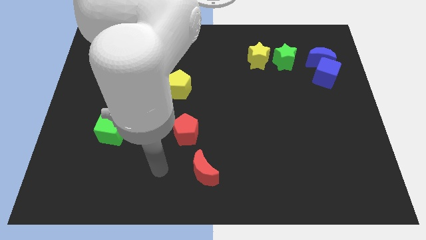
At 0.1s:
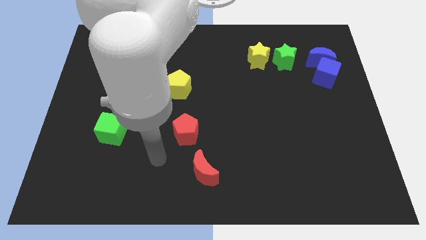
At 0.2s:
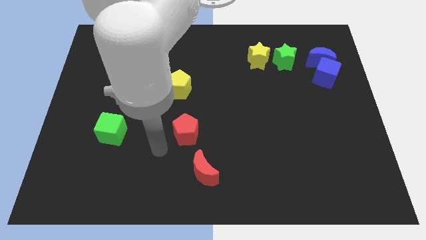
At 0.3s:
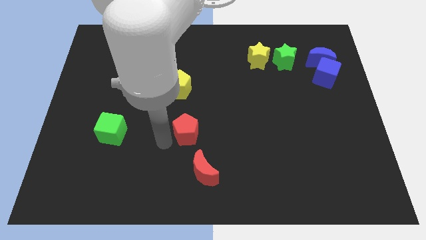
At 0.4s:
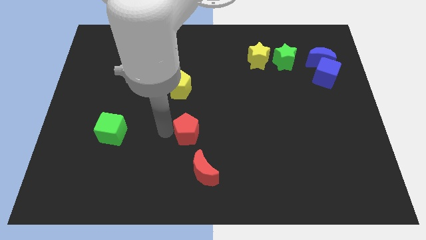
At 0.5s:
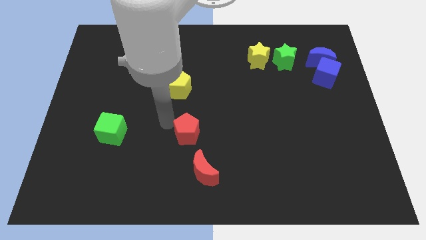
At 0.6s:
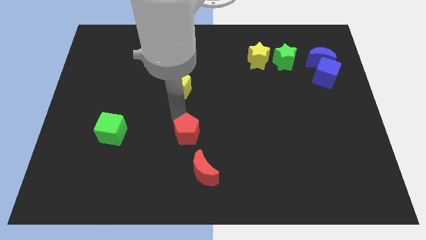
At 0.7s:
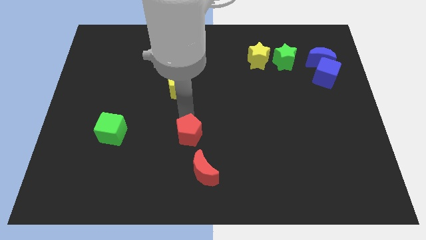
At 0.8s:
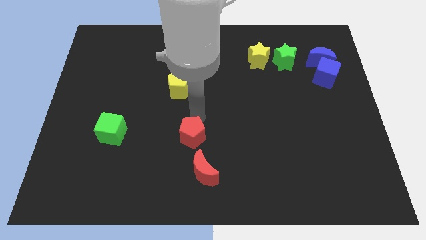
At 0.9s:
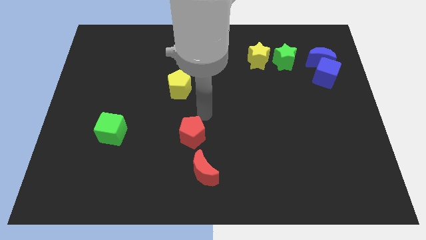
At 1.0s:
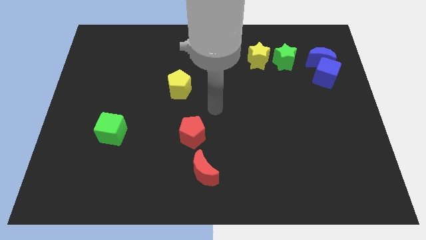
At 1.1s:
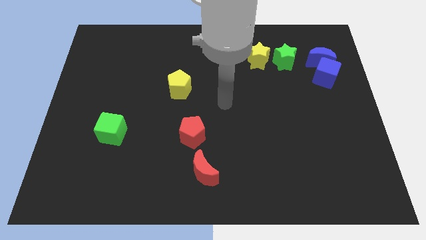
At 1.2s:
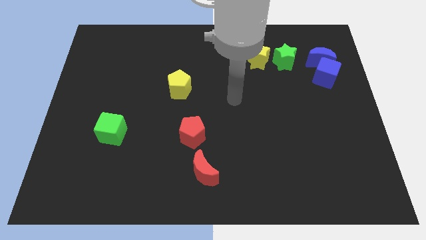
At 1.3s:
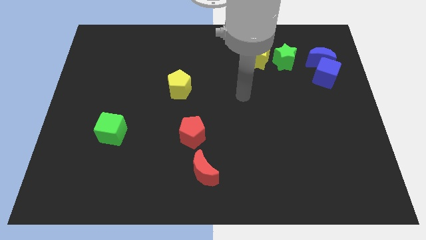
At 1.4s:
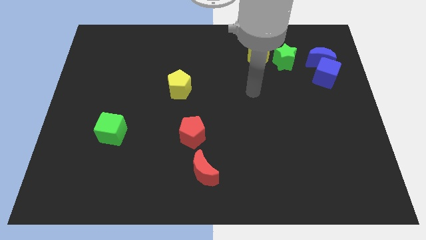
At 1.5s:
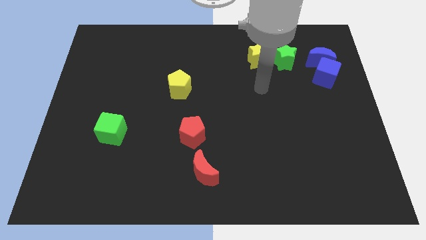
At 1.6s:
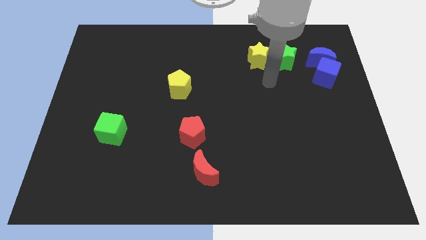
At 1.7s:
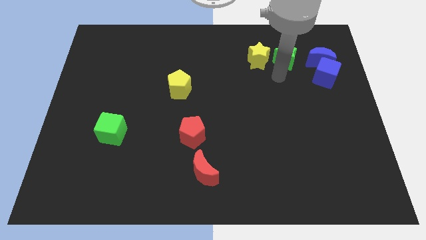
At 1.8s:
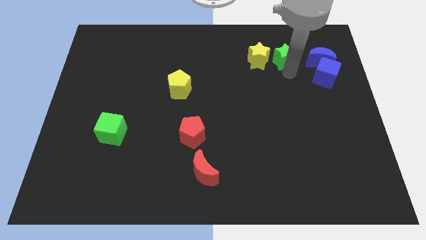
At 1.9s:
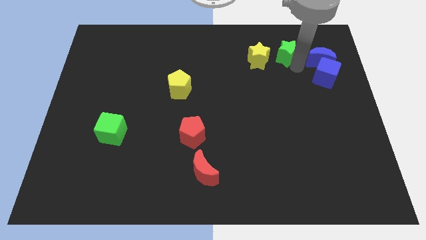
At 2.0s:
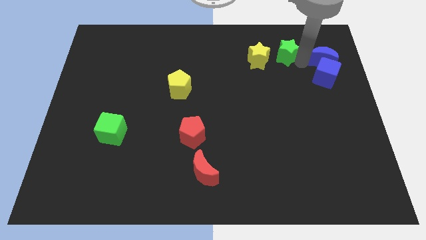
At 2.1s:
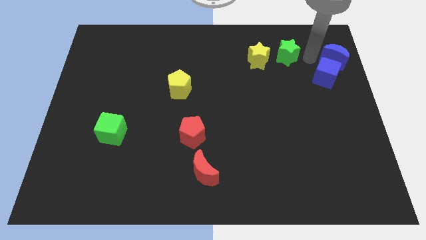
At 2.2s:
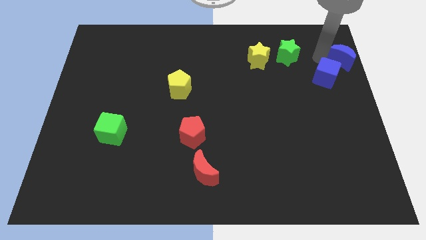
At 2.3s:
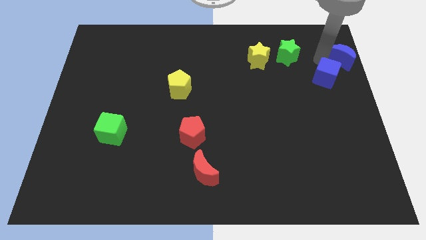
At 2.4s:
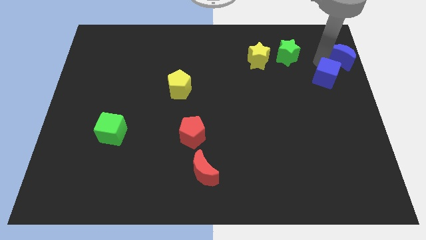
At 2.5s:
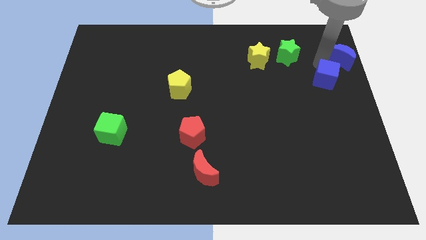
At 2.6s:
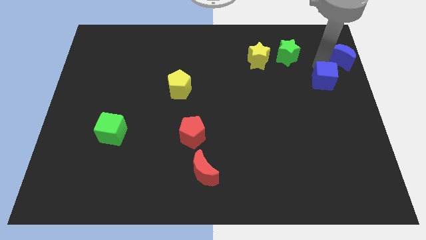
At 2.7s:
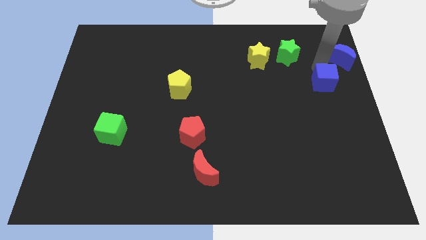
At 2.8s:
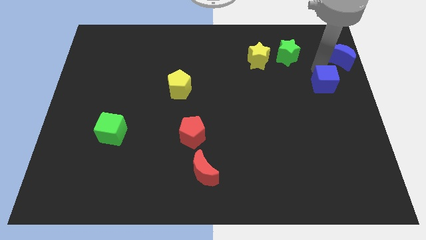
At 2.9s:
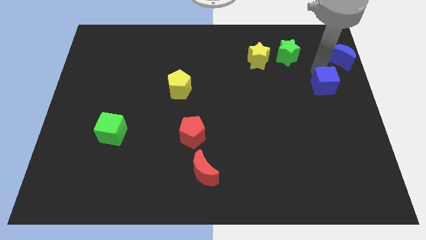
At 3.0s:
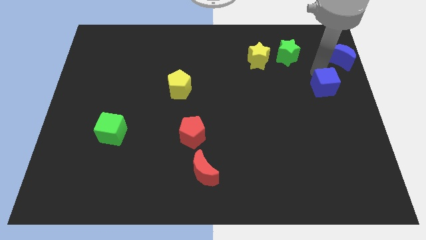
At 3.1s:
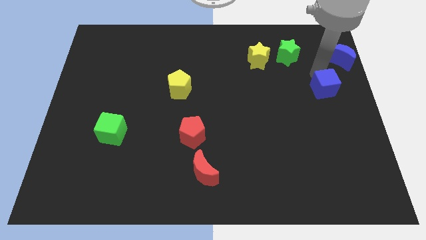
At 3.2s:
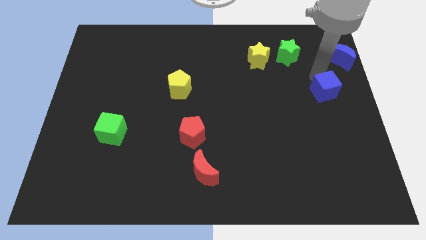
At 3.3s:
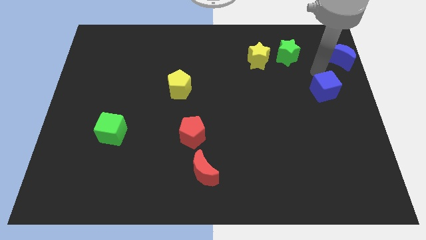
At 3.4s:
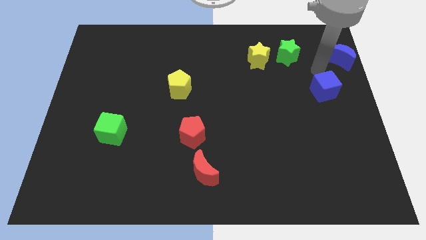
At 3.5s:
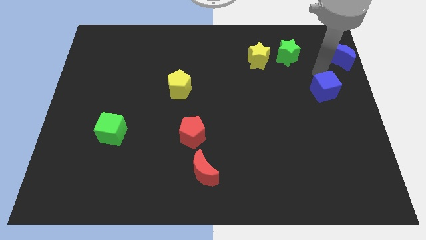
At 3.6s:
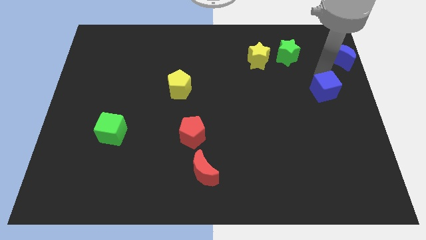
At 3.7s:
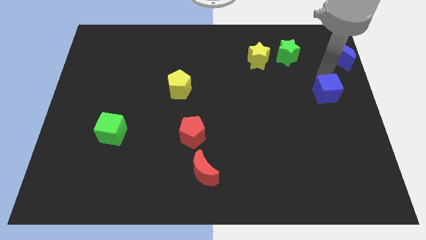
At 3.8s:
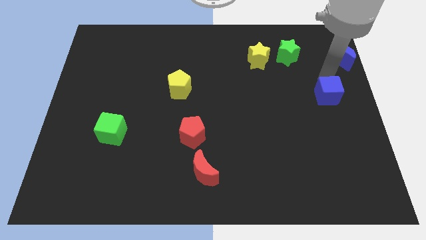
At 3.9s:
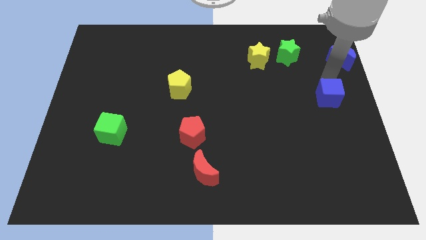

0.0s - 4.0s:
slide the blue cube a bit downwards

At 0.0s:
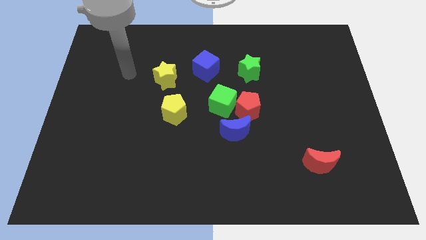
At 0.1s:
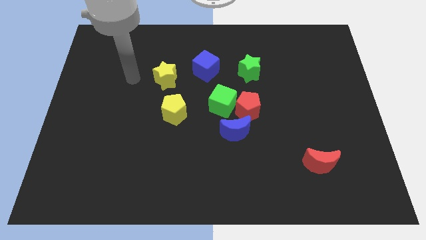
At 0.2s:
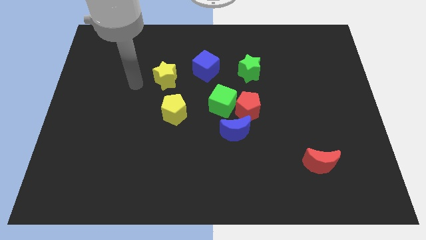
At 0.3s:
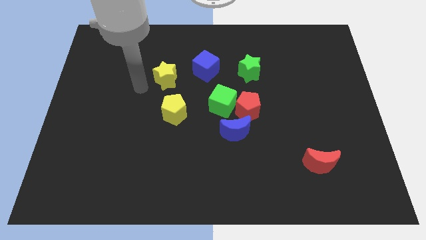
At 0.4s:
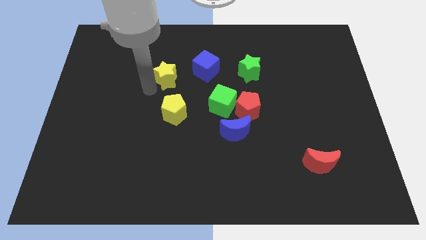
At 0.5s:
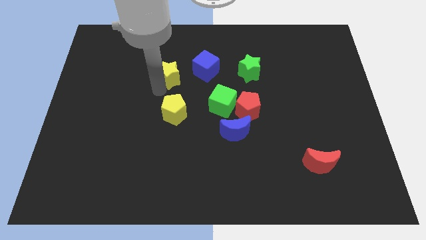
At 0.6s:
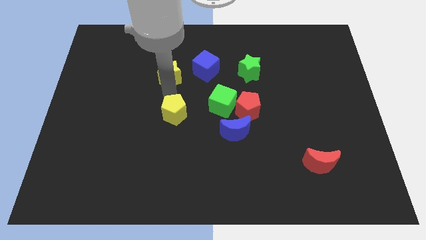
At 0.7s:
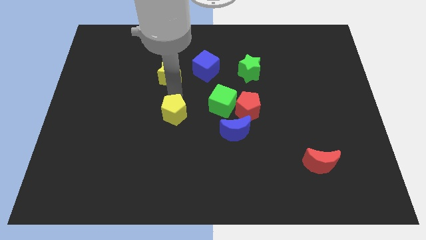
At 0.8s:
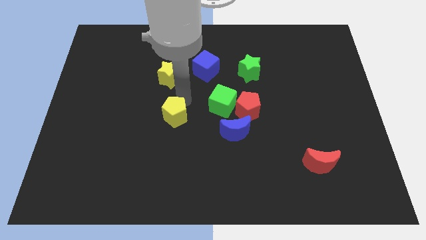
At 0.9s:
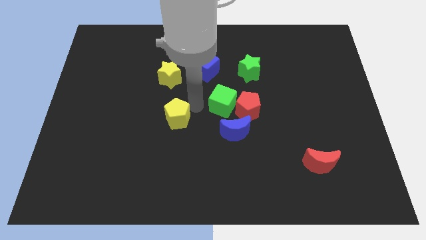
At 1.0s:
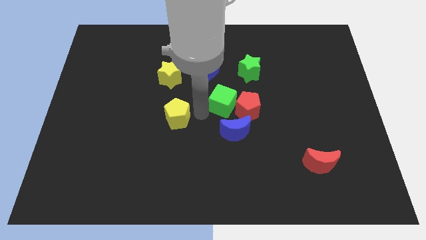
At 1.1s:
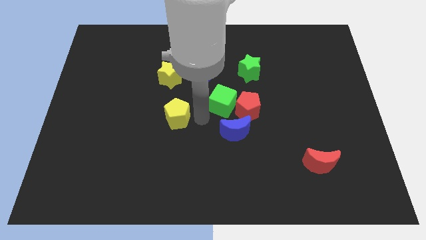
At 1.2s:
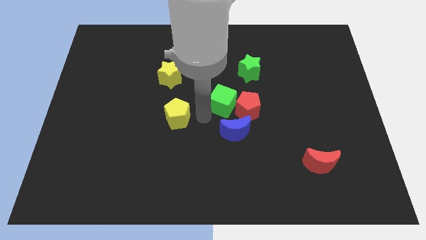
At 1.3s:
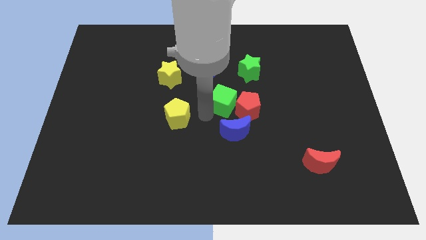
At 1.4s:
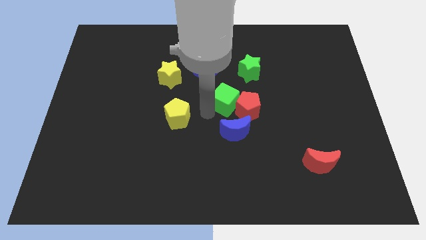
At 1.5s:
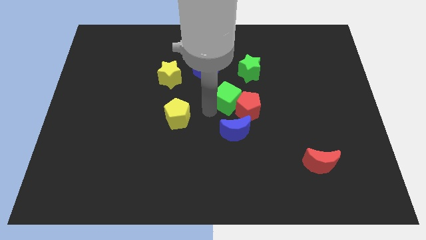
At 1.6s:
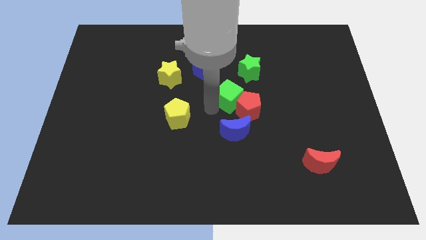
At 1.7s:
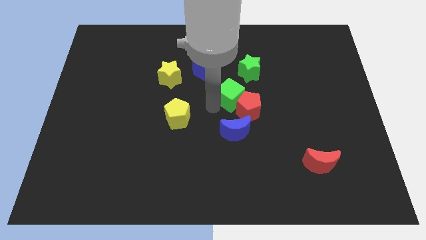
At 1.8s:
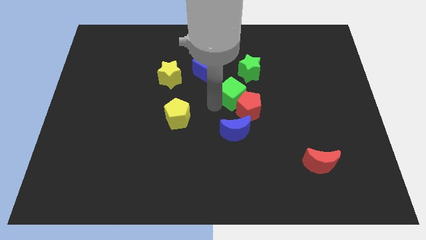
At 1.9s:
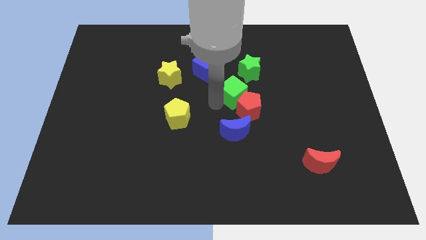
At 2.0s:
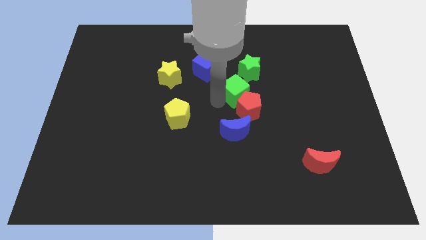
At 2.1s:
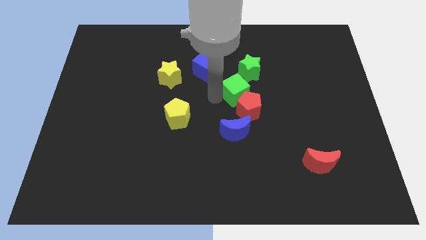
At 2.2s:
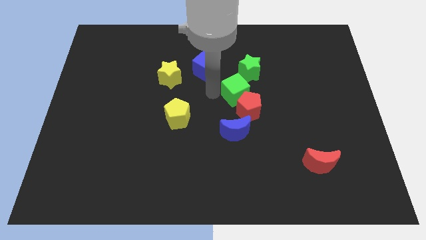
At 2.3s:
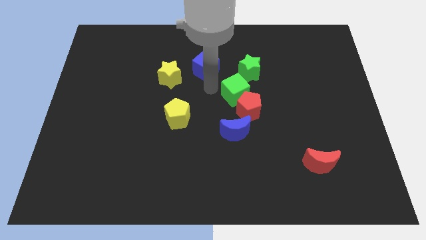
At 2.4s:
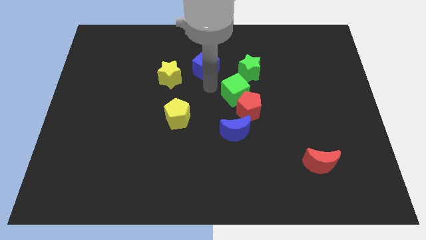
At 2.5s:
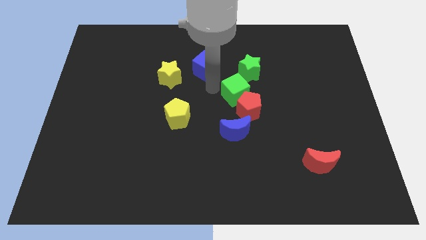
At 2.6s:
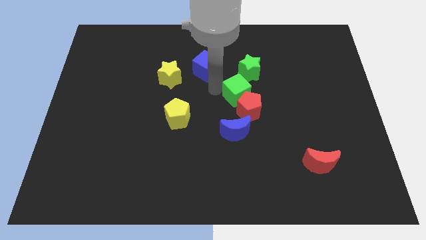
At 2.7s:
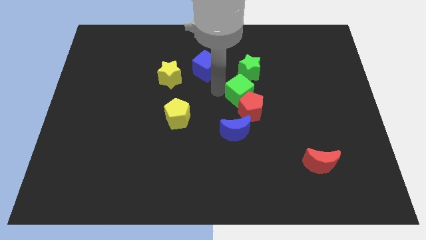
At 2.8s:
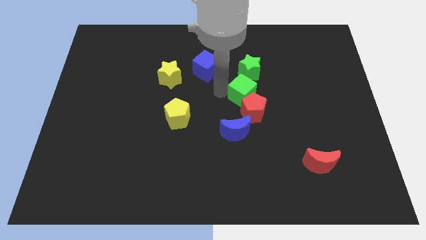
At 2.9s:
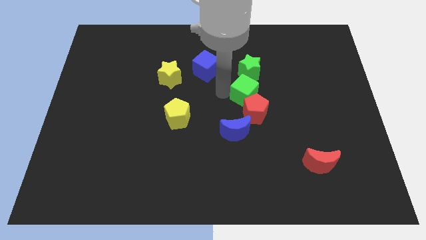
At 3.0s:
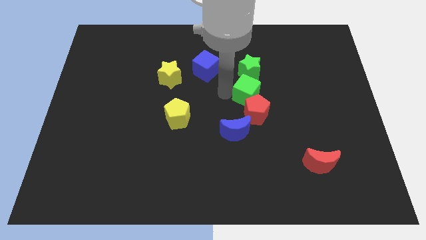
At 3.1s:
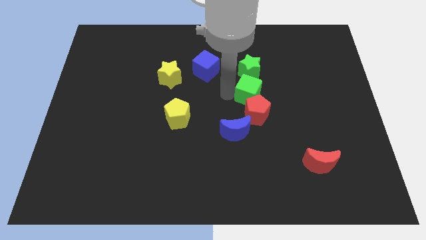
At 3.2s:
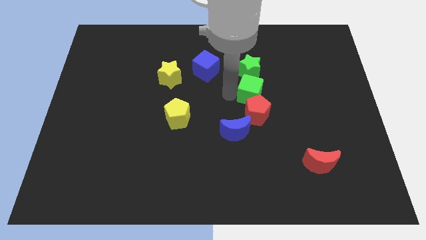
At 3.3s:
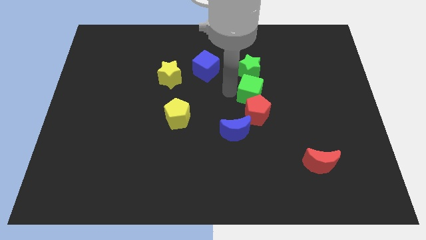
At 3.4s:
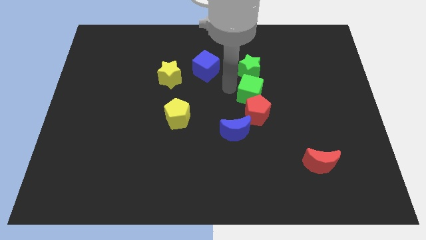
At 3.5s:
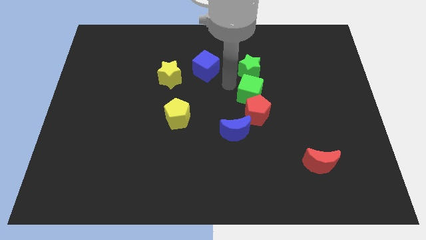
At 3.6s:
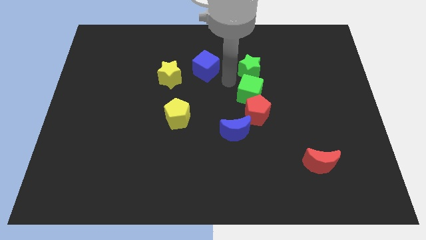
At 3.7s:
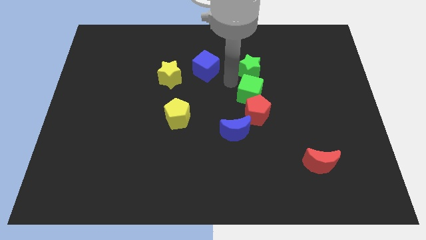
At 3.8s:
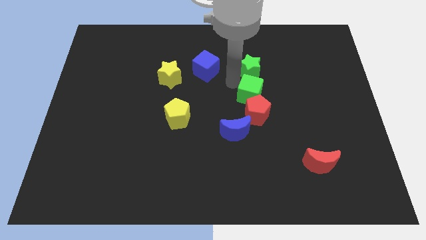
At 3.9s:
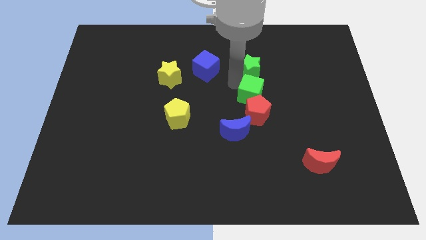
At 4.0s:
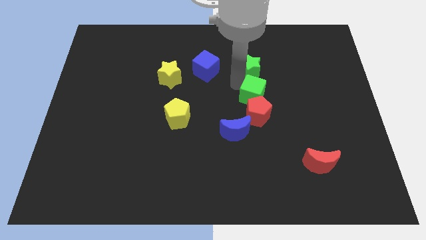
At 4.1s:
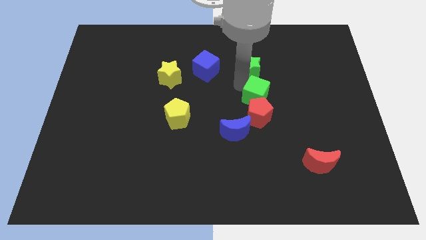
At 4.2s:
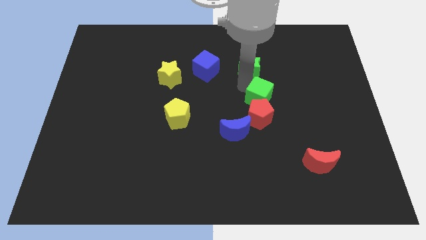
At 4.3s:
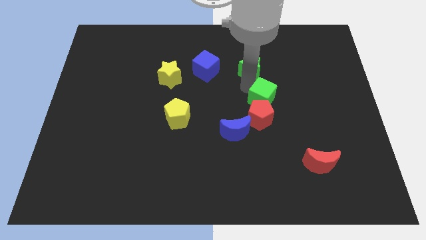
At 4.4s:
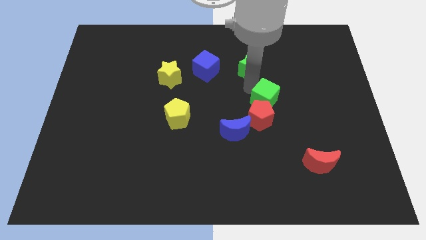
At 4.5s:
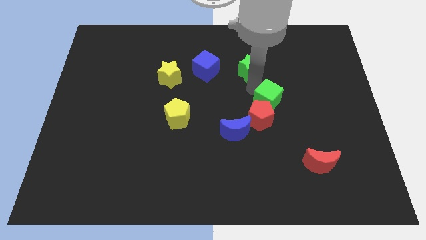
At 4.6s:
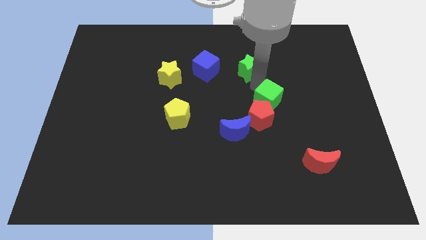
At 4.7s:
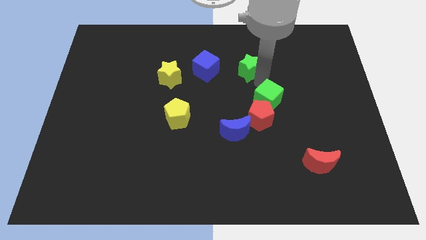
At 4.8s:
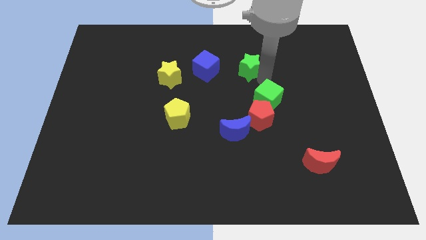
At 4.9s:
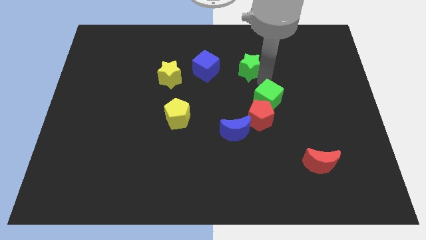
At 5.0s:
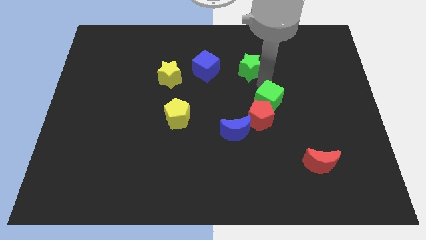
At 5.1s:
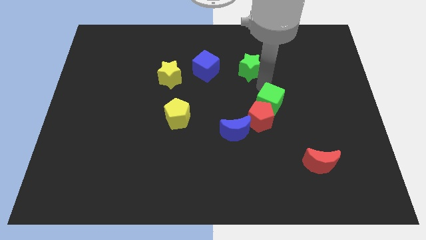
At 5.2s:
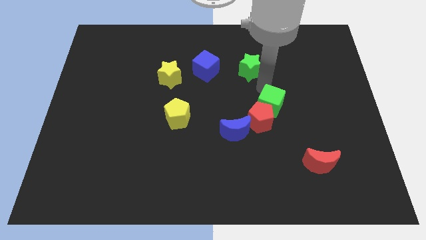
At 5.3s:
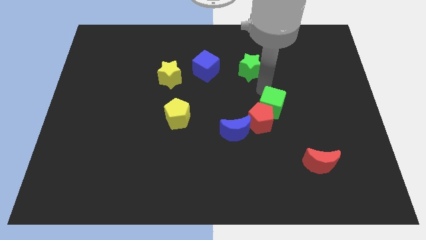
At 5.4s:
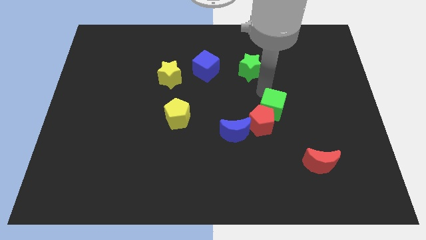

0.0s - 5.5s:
slightly move the green cube downwards and right
